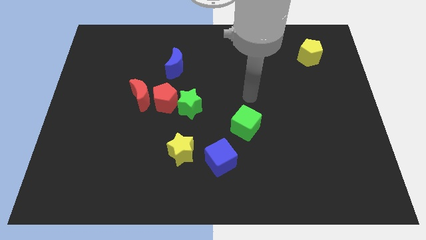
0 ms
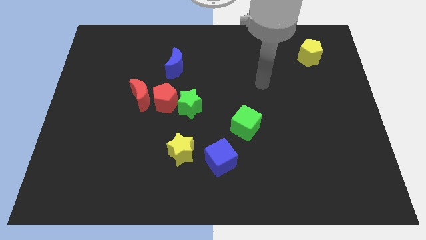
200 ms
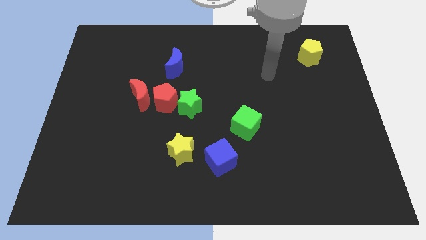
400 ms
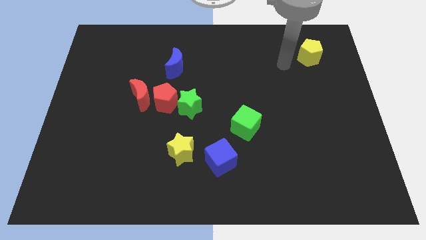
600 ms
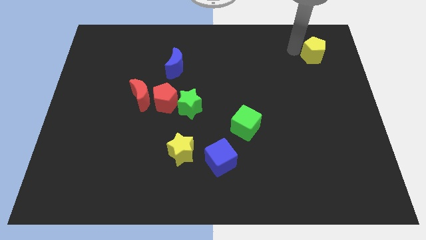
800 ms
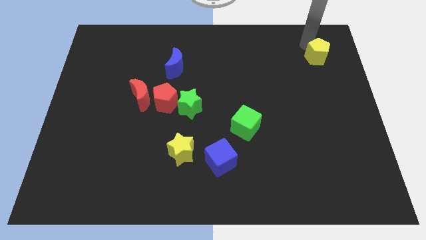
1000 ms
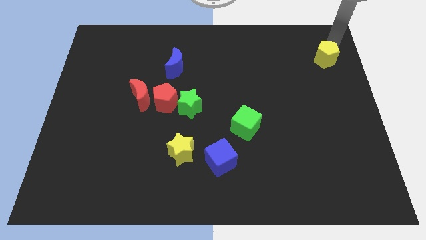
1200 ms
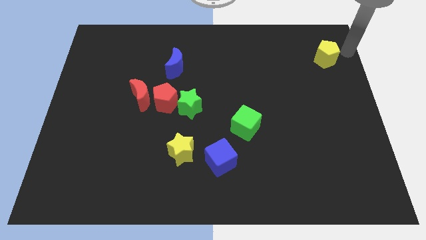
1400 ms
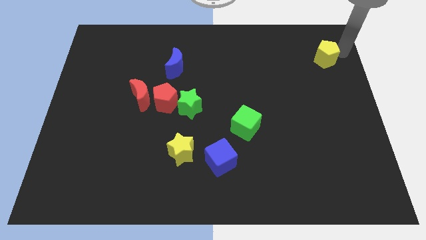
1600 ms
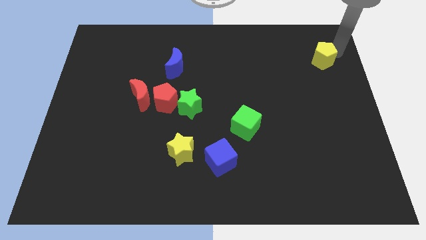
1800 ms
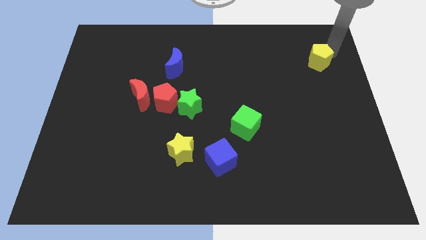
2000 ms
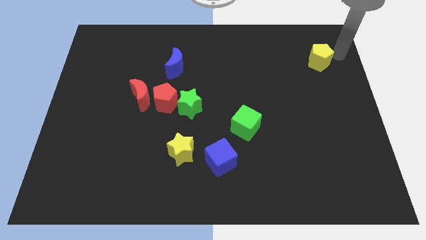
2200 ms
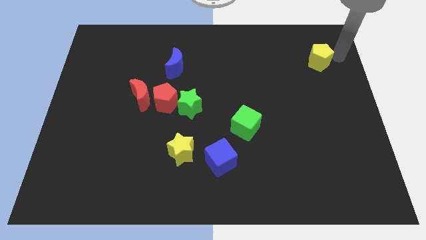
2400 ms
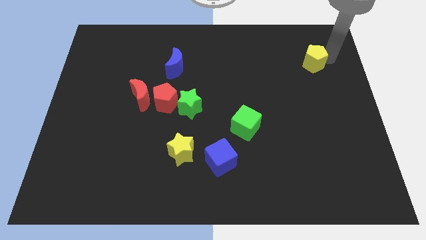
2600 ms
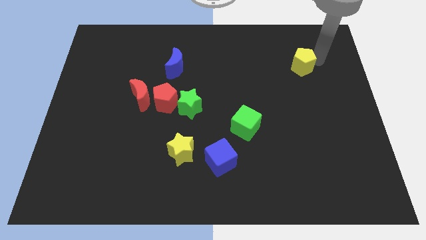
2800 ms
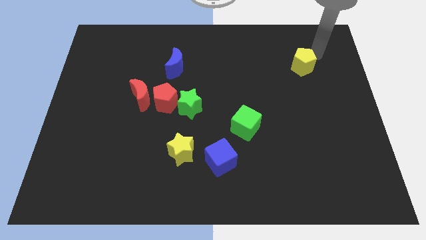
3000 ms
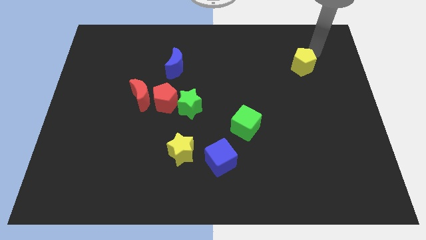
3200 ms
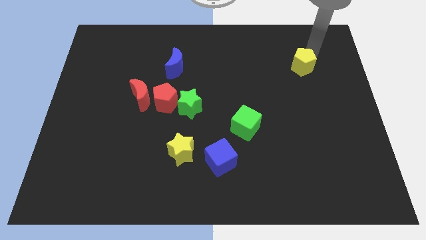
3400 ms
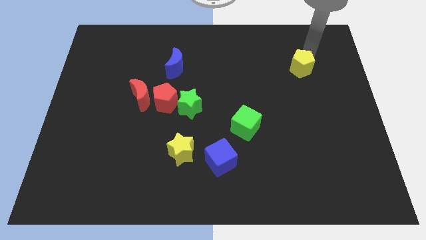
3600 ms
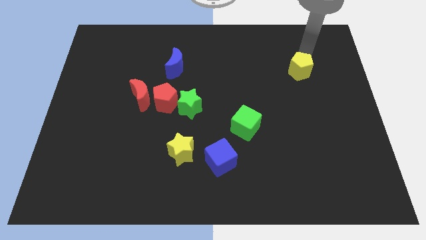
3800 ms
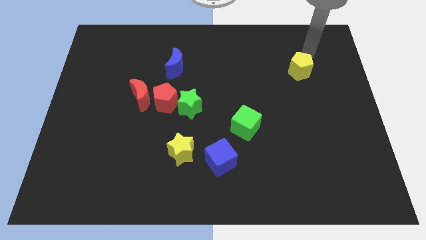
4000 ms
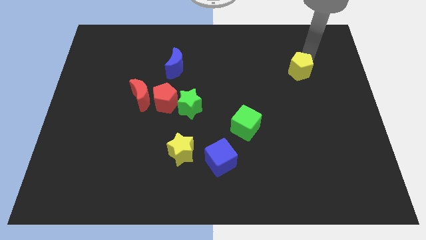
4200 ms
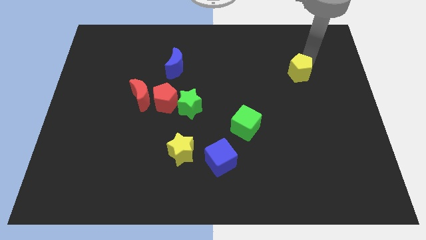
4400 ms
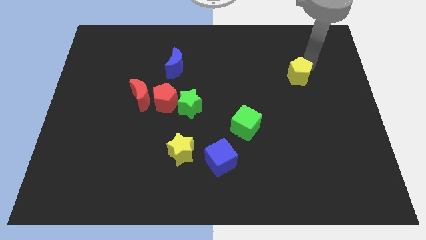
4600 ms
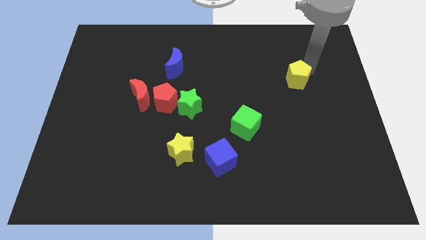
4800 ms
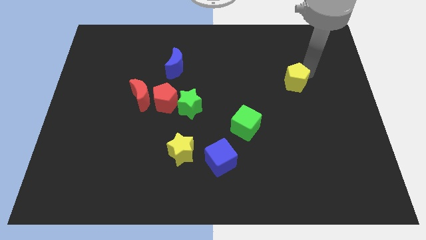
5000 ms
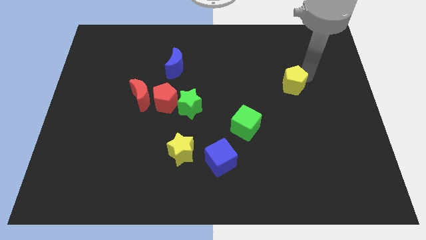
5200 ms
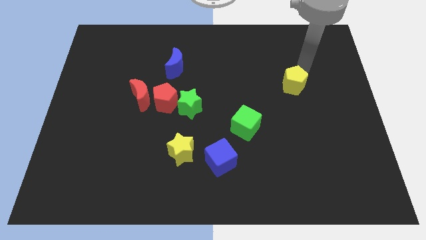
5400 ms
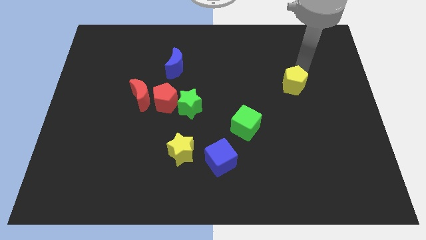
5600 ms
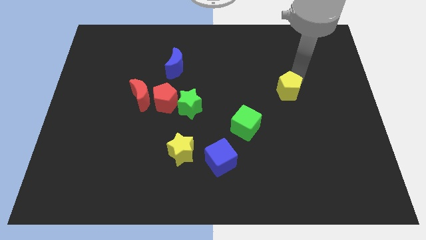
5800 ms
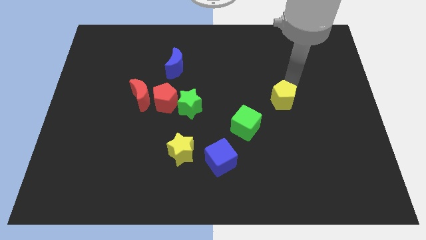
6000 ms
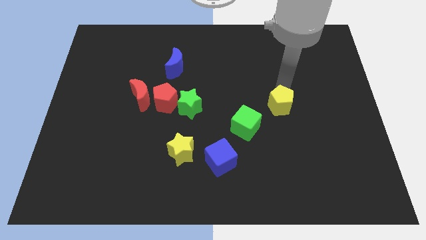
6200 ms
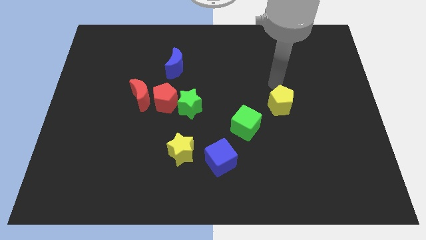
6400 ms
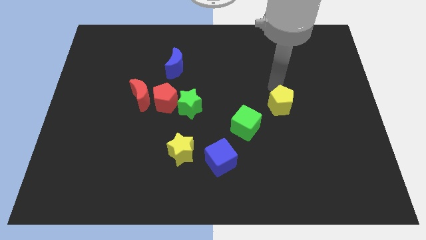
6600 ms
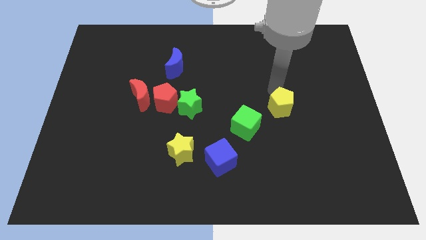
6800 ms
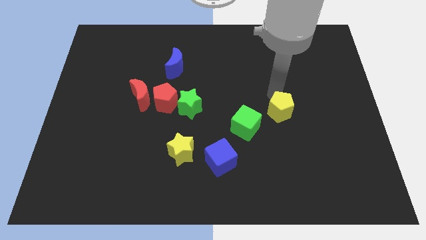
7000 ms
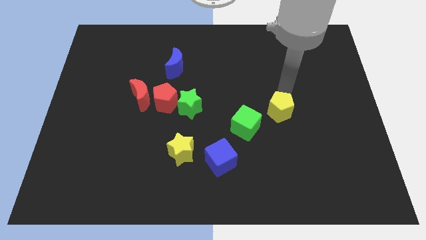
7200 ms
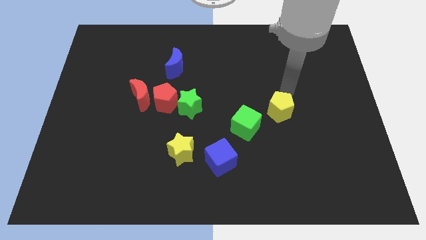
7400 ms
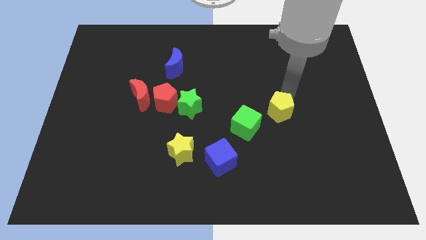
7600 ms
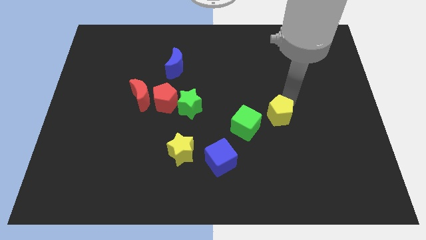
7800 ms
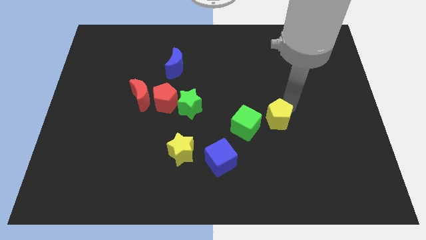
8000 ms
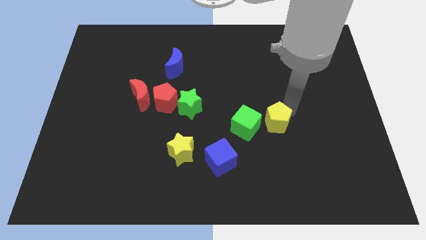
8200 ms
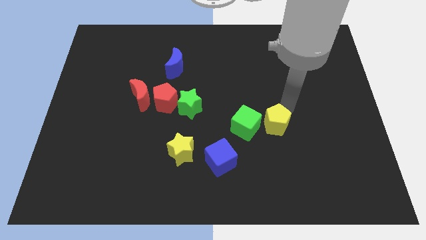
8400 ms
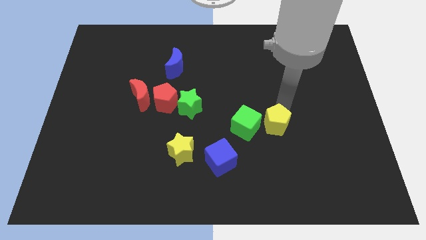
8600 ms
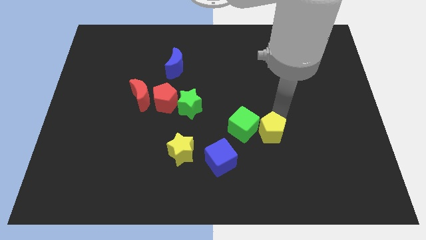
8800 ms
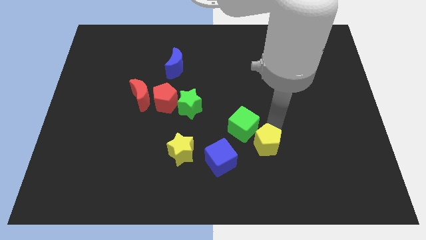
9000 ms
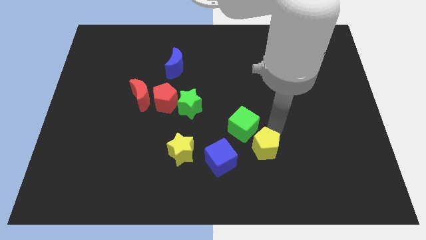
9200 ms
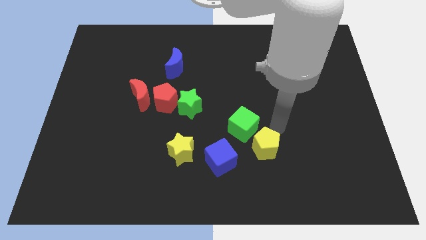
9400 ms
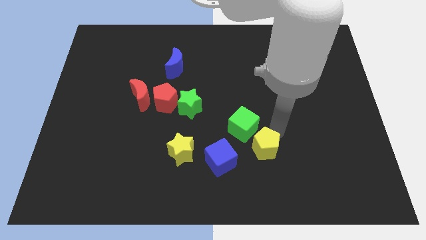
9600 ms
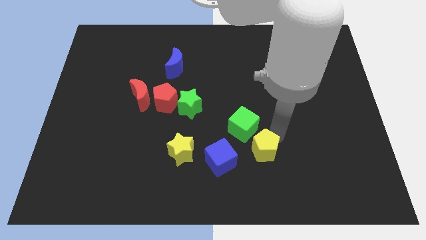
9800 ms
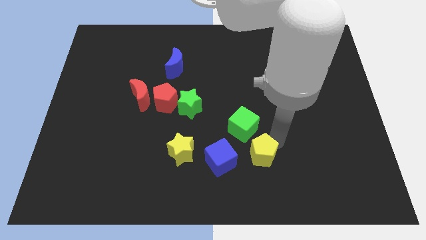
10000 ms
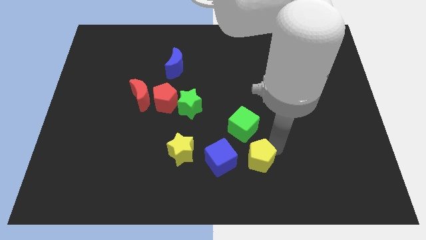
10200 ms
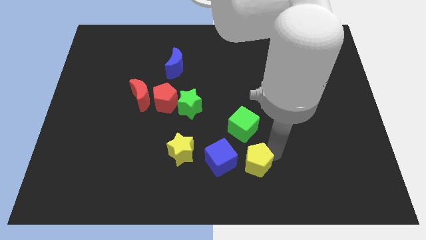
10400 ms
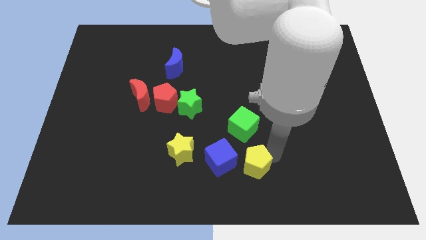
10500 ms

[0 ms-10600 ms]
slide the yellow pentagon to the bottom side
